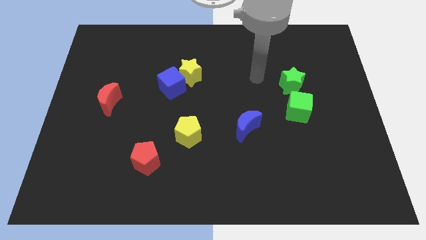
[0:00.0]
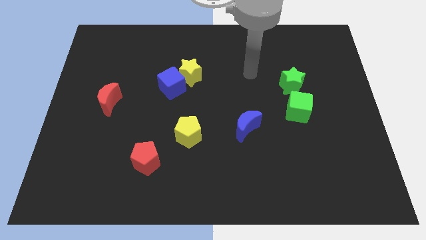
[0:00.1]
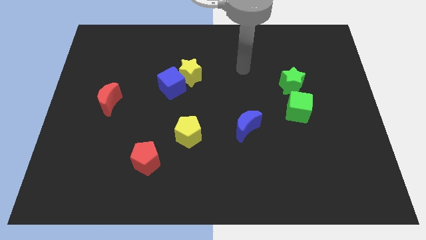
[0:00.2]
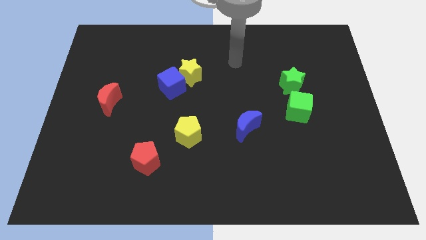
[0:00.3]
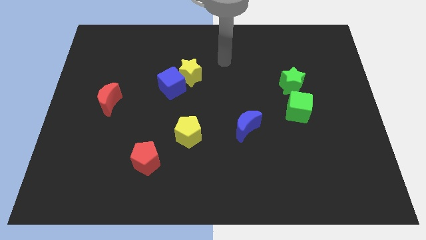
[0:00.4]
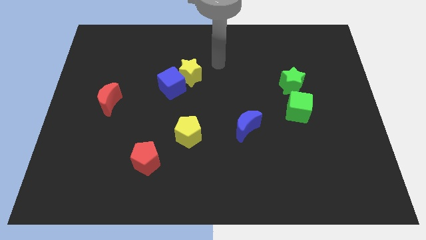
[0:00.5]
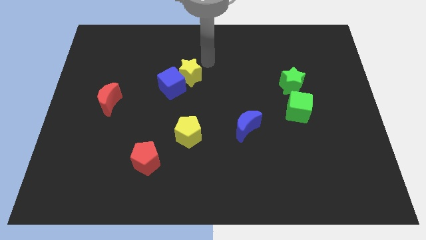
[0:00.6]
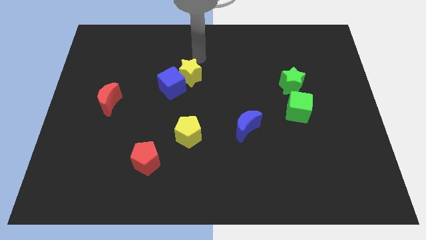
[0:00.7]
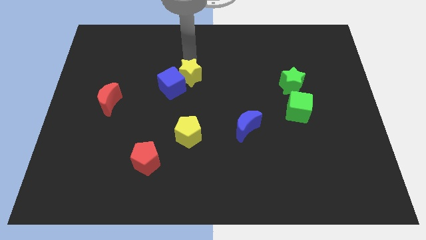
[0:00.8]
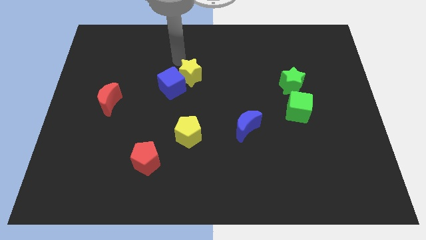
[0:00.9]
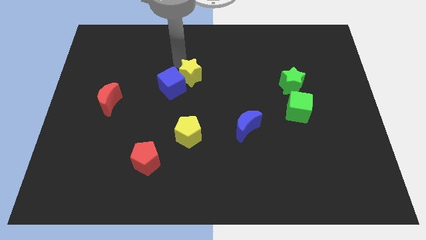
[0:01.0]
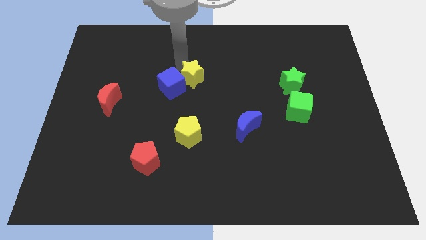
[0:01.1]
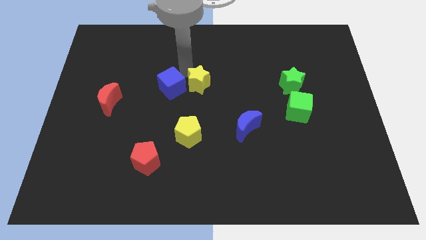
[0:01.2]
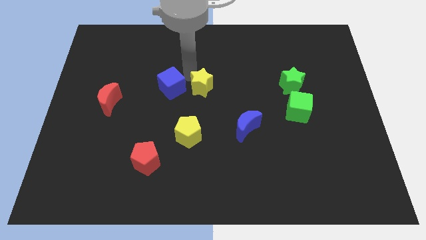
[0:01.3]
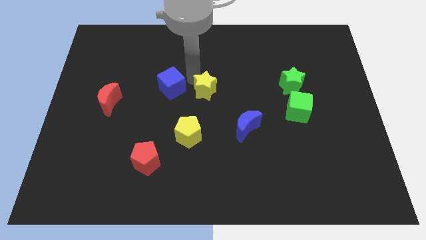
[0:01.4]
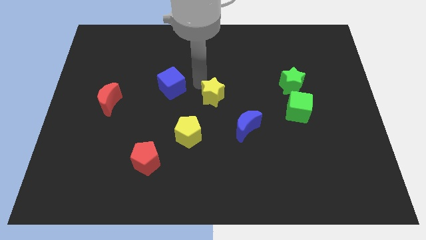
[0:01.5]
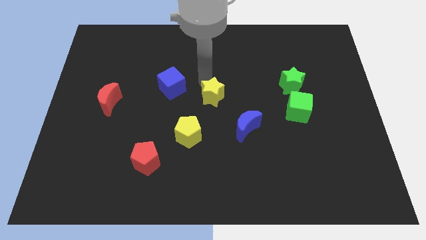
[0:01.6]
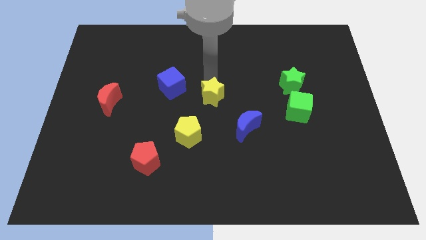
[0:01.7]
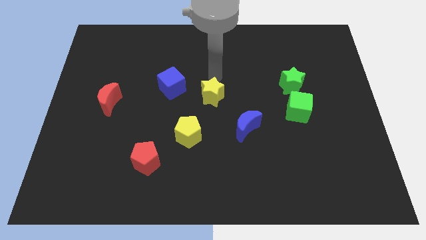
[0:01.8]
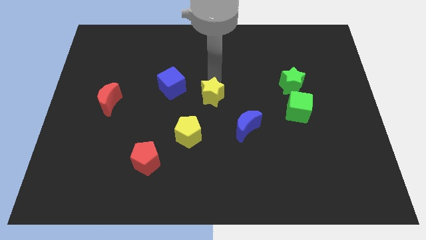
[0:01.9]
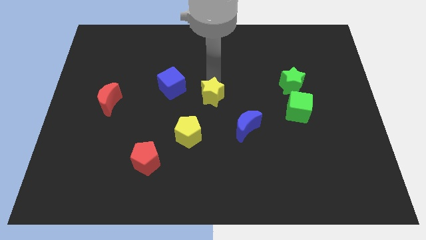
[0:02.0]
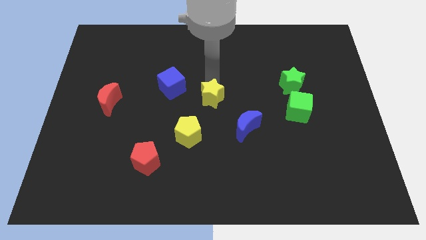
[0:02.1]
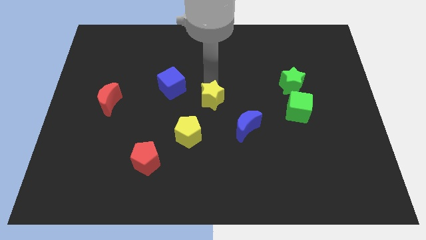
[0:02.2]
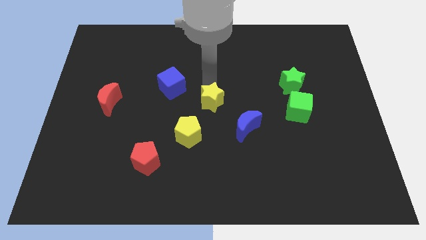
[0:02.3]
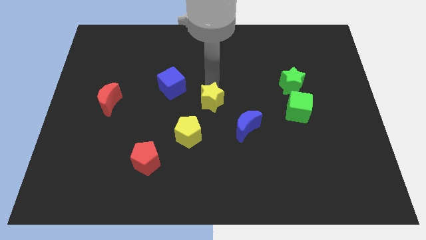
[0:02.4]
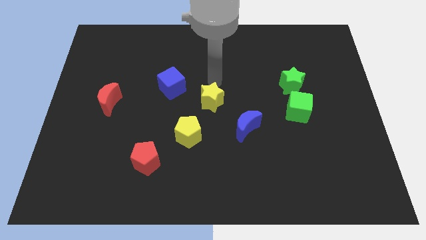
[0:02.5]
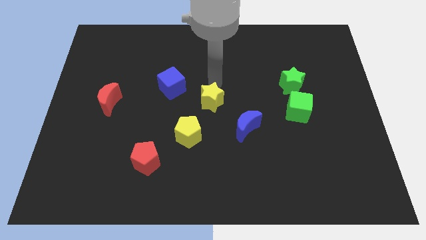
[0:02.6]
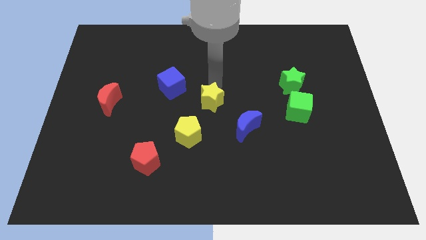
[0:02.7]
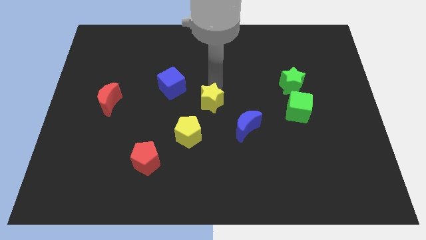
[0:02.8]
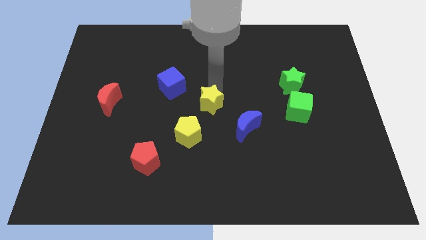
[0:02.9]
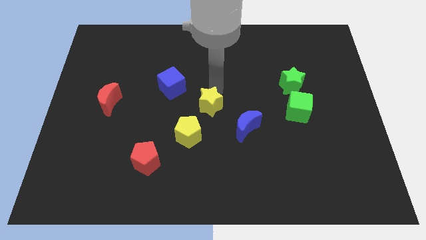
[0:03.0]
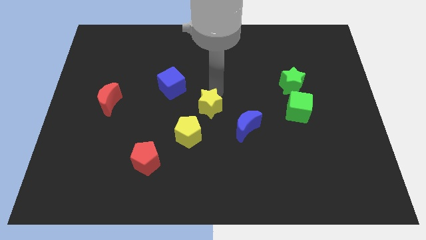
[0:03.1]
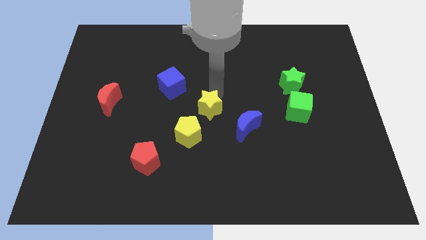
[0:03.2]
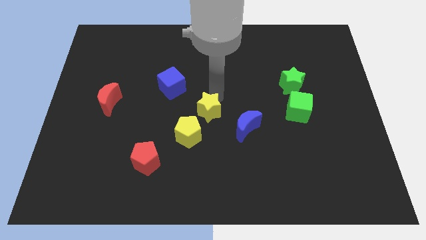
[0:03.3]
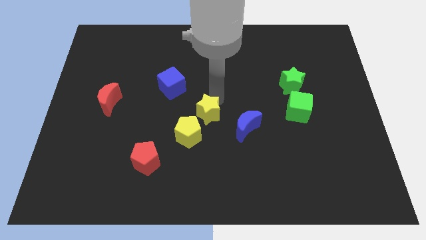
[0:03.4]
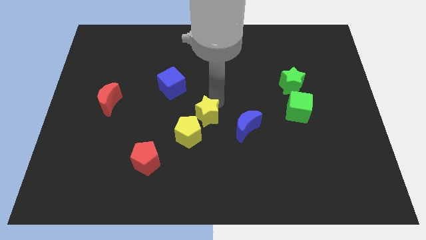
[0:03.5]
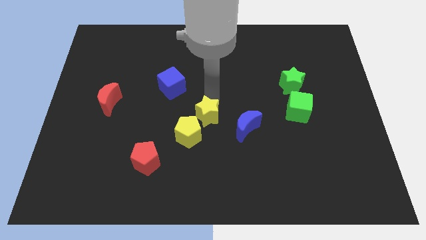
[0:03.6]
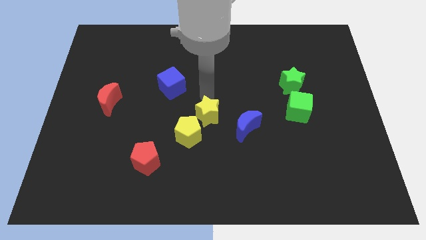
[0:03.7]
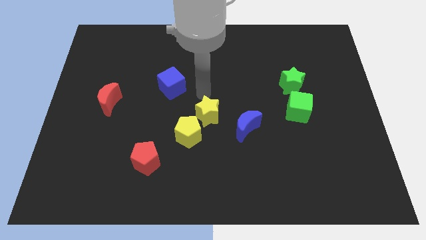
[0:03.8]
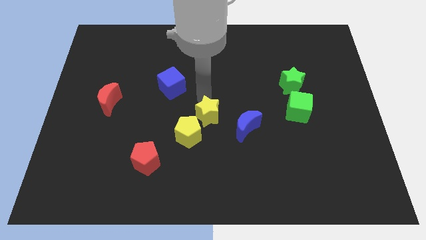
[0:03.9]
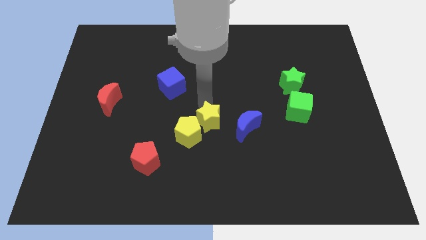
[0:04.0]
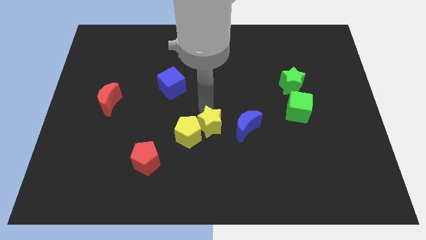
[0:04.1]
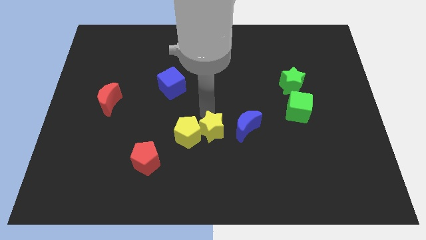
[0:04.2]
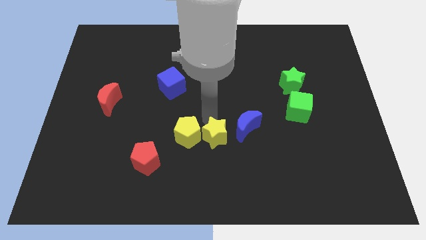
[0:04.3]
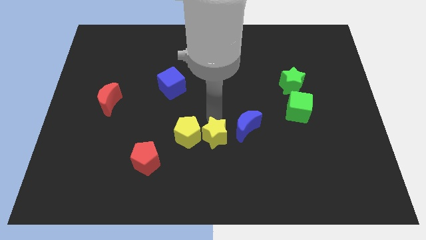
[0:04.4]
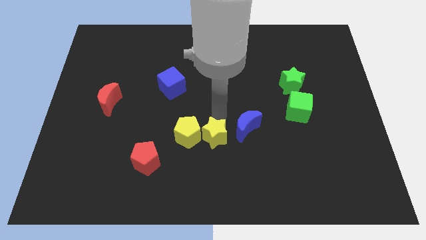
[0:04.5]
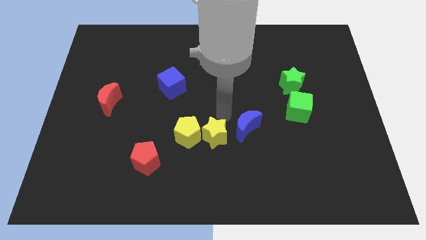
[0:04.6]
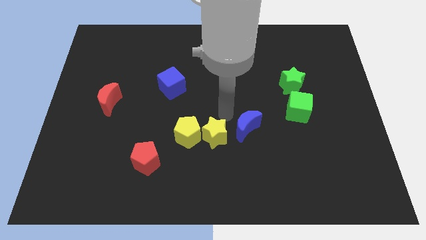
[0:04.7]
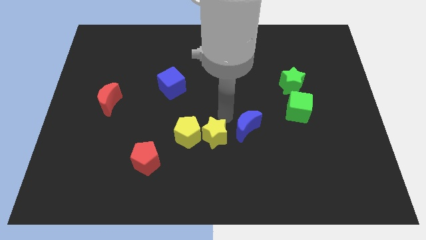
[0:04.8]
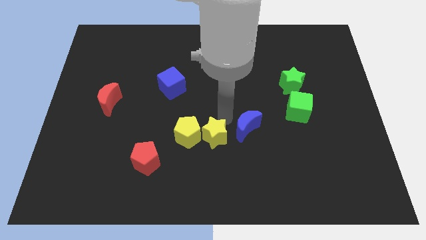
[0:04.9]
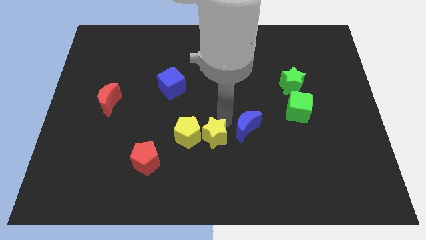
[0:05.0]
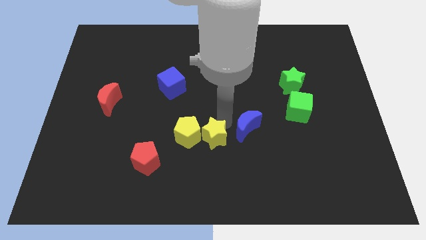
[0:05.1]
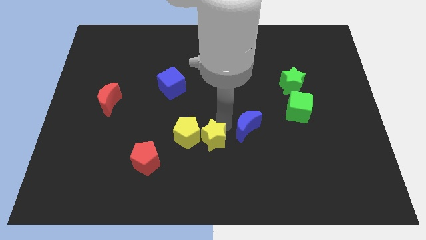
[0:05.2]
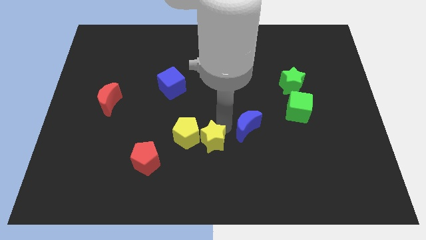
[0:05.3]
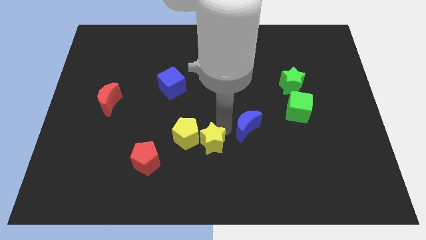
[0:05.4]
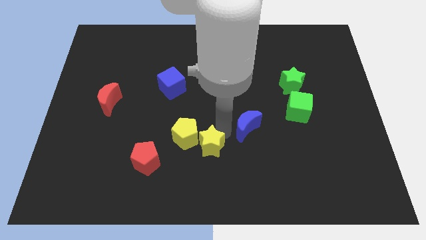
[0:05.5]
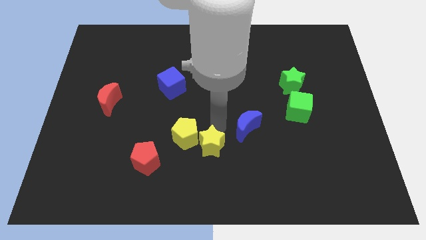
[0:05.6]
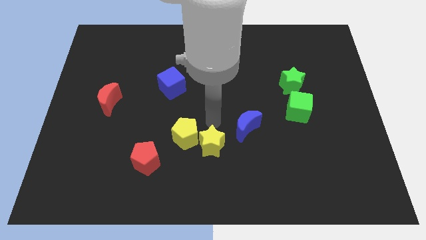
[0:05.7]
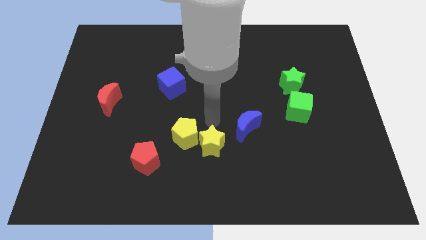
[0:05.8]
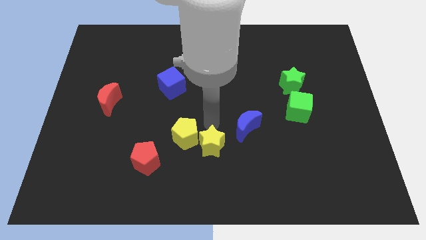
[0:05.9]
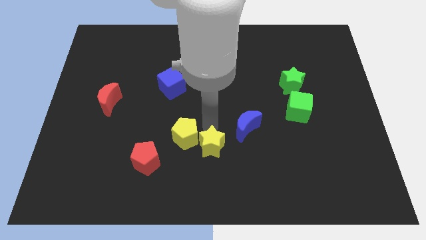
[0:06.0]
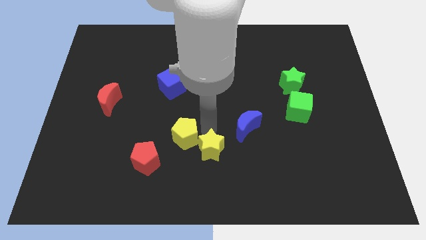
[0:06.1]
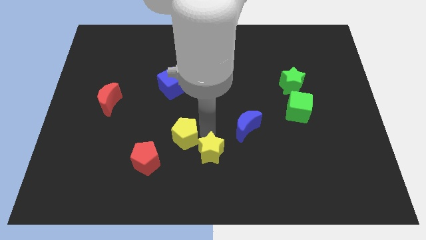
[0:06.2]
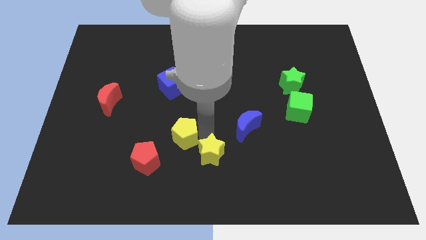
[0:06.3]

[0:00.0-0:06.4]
push the yellow star to the bottom side

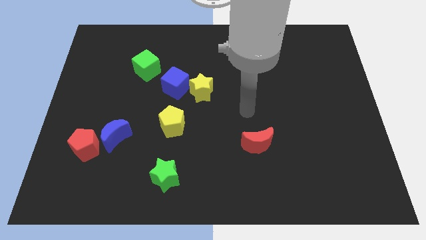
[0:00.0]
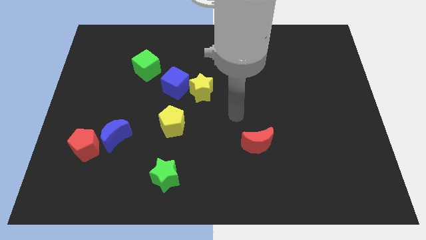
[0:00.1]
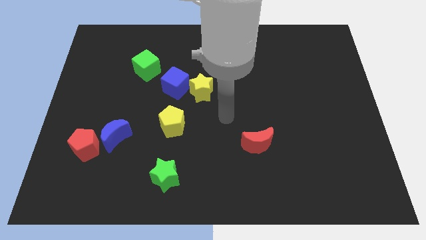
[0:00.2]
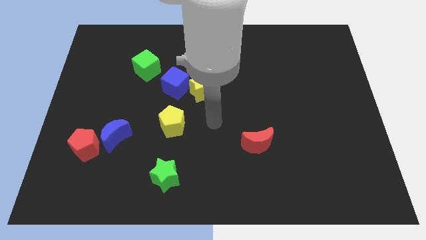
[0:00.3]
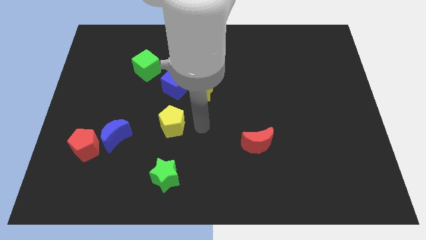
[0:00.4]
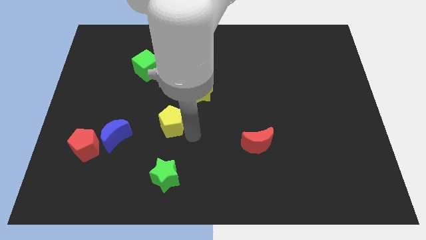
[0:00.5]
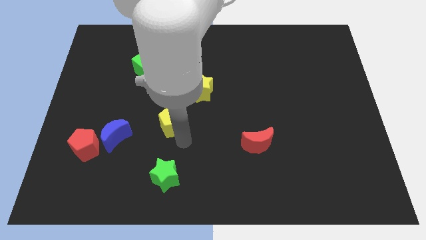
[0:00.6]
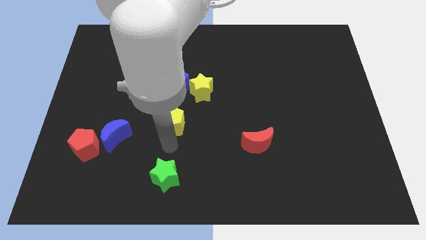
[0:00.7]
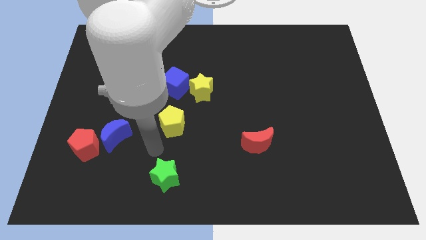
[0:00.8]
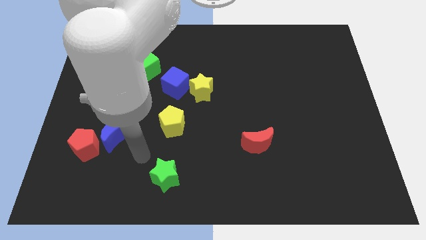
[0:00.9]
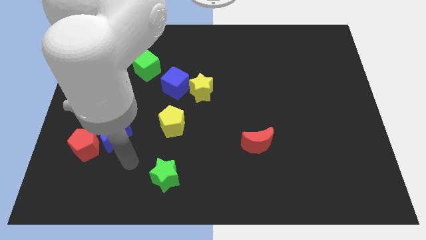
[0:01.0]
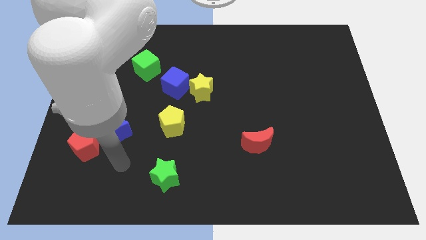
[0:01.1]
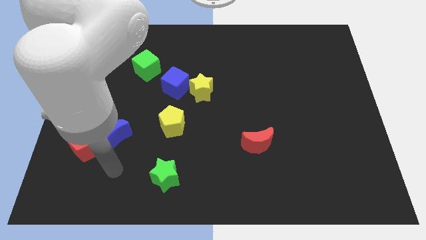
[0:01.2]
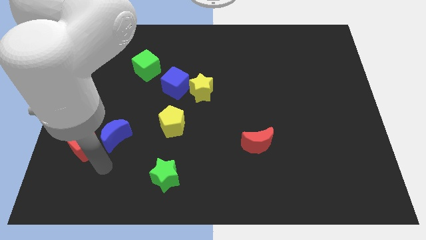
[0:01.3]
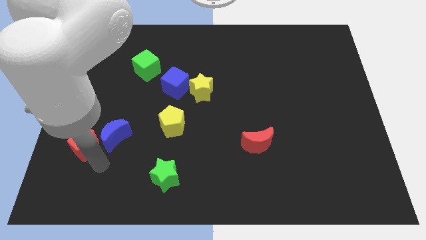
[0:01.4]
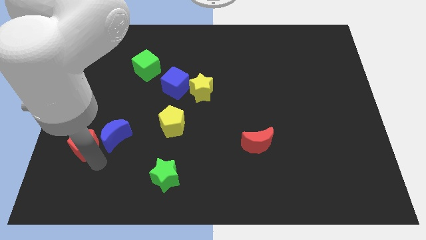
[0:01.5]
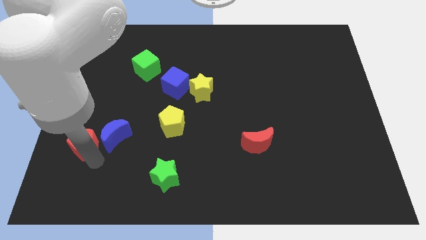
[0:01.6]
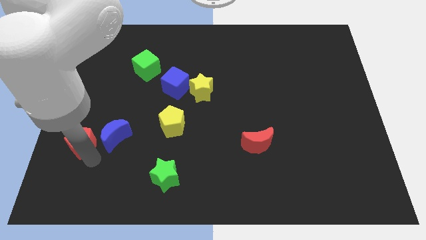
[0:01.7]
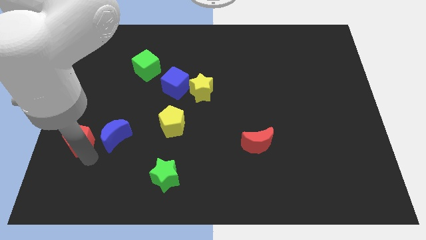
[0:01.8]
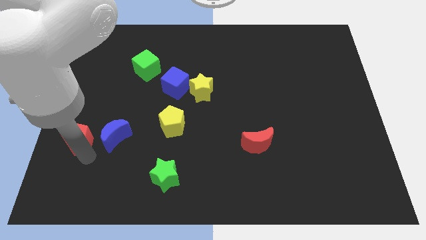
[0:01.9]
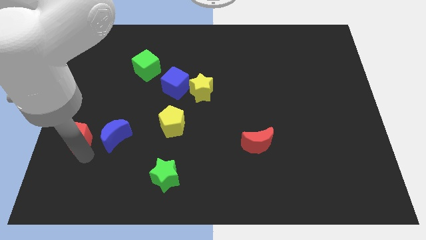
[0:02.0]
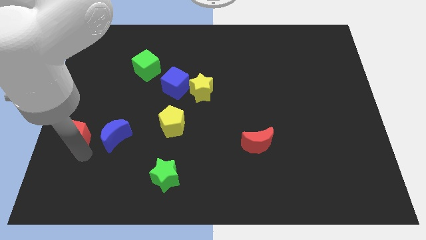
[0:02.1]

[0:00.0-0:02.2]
put the red pentagon to the left side
